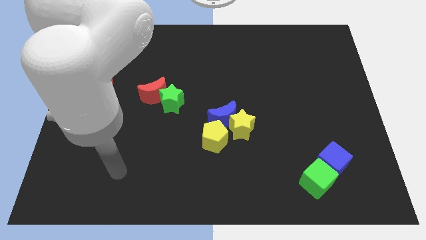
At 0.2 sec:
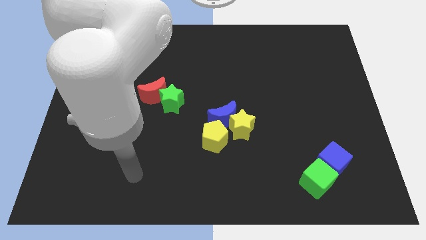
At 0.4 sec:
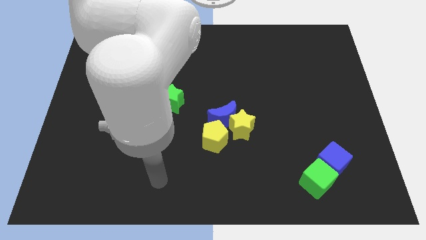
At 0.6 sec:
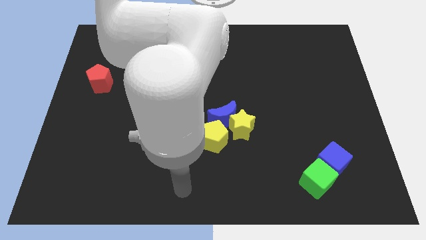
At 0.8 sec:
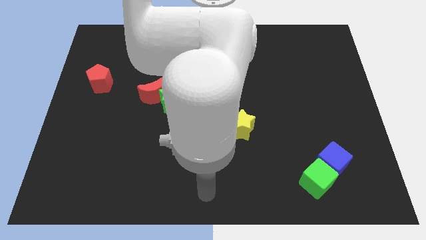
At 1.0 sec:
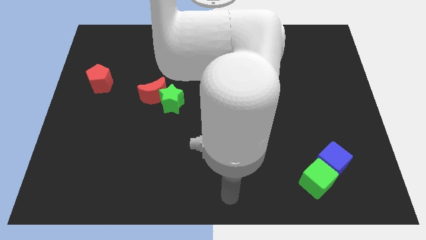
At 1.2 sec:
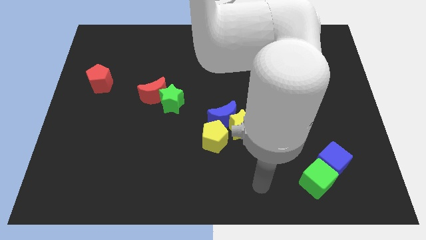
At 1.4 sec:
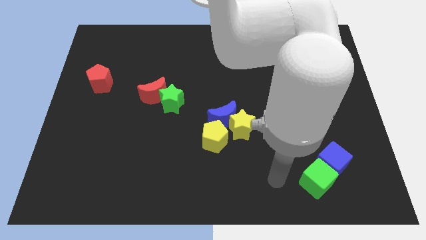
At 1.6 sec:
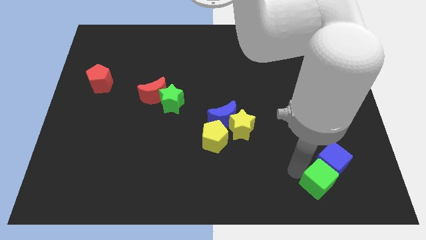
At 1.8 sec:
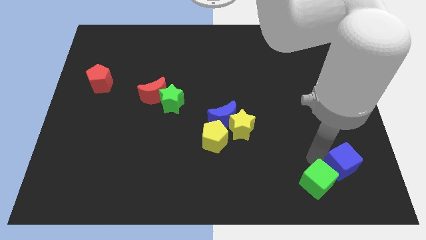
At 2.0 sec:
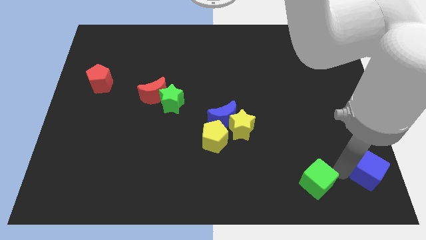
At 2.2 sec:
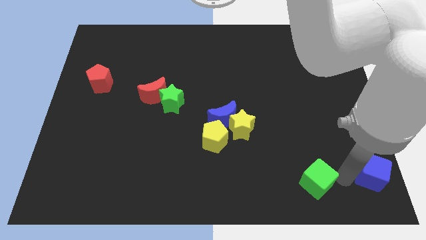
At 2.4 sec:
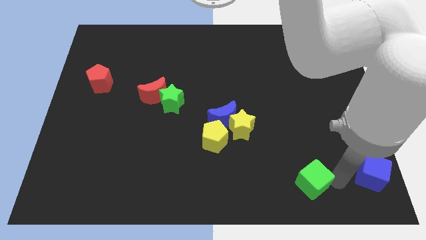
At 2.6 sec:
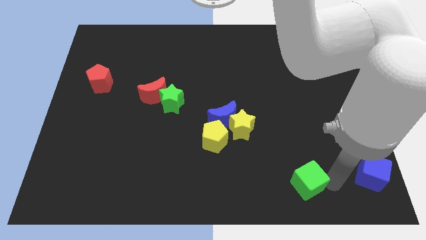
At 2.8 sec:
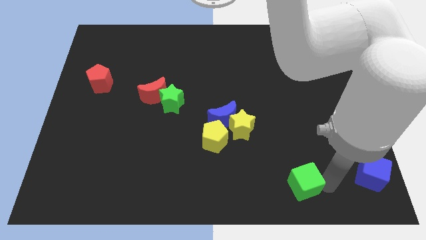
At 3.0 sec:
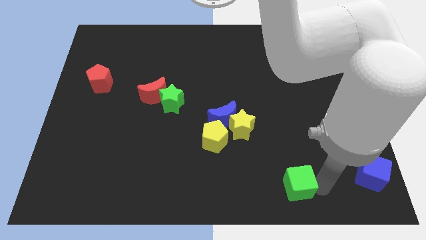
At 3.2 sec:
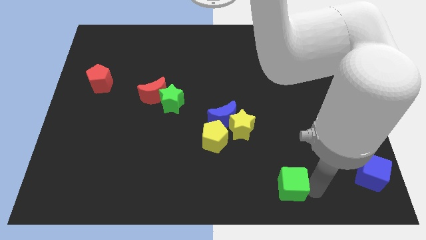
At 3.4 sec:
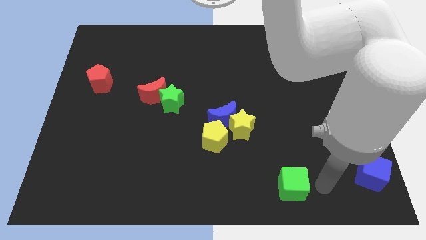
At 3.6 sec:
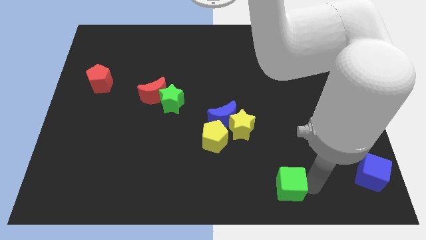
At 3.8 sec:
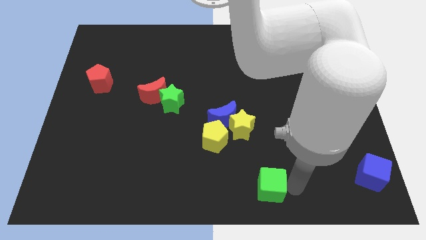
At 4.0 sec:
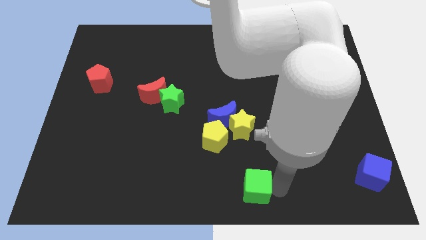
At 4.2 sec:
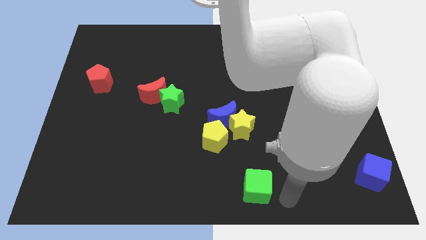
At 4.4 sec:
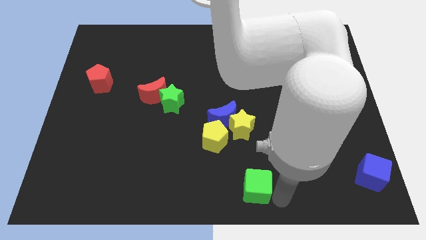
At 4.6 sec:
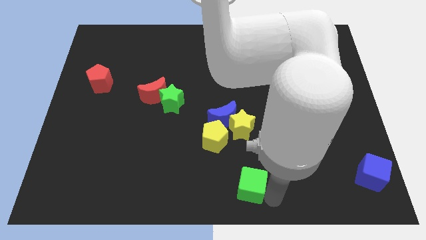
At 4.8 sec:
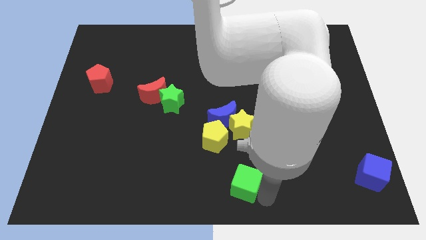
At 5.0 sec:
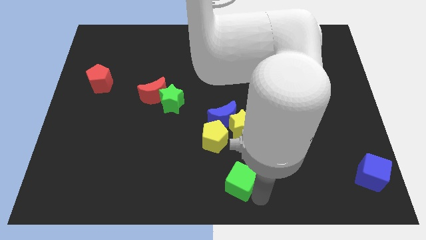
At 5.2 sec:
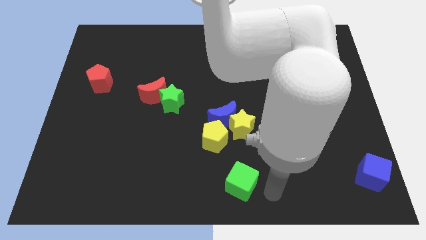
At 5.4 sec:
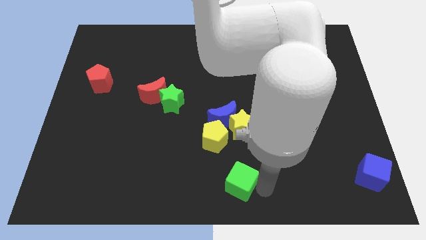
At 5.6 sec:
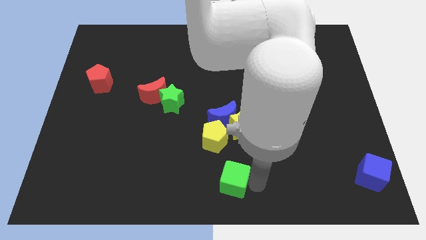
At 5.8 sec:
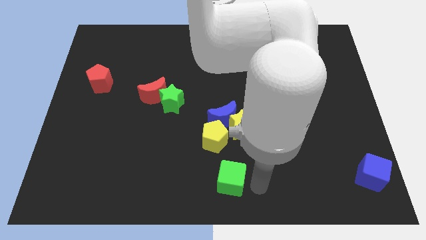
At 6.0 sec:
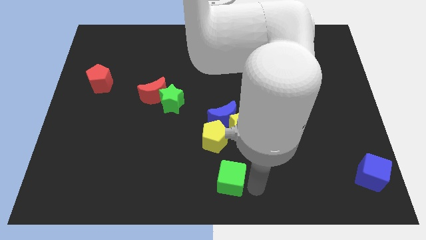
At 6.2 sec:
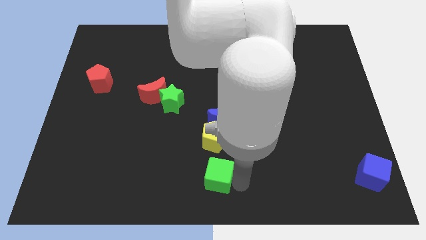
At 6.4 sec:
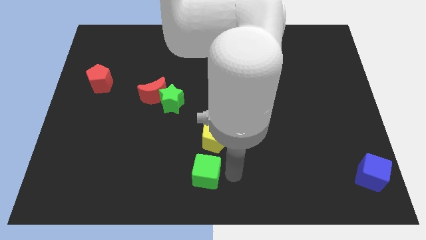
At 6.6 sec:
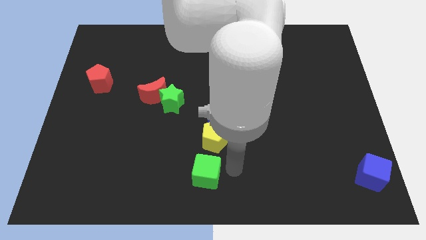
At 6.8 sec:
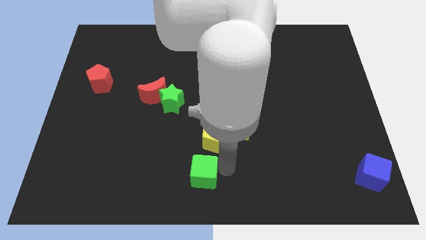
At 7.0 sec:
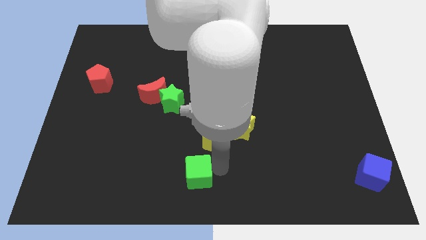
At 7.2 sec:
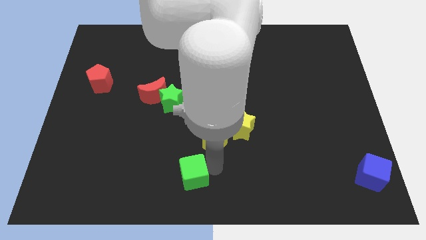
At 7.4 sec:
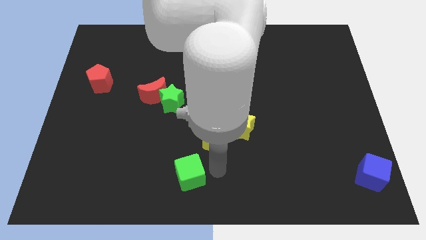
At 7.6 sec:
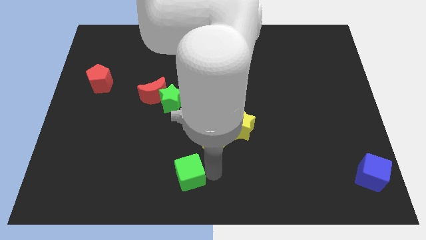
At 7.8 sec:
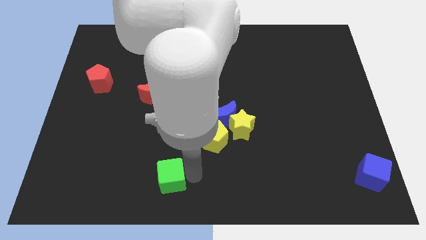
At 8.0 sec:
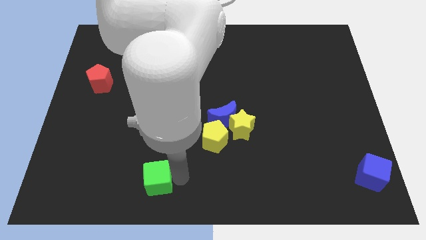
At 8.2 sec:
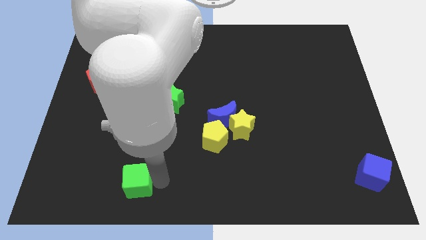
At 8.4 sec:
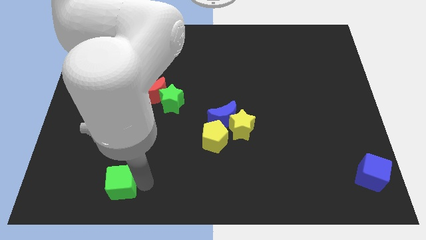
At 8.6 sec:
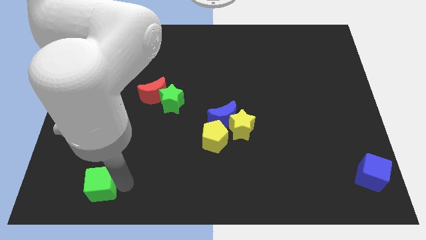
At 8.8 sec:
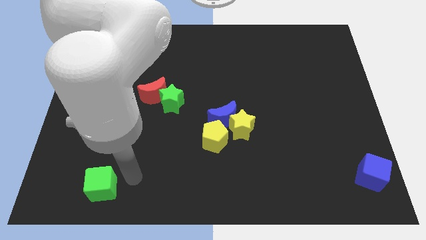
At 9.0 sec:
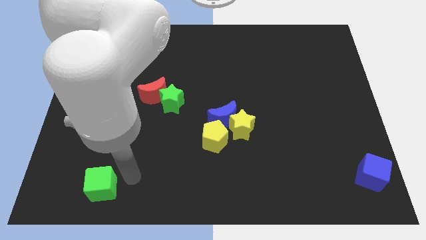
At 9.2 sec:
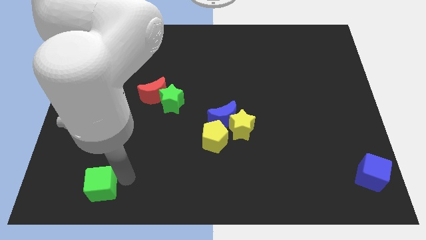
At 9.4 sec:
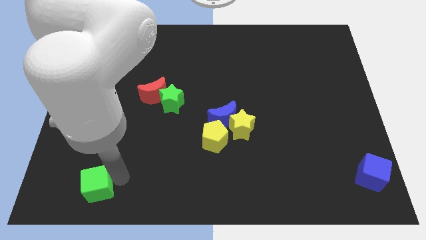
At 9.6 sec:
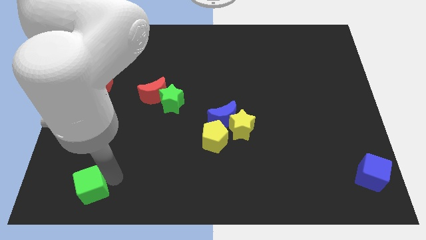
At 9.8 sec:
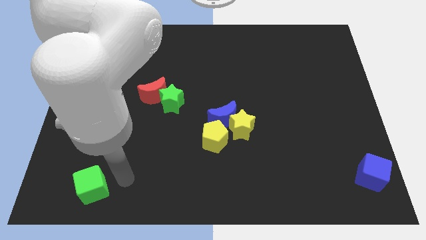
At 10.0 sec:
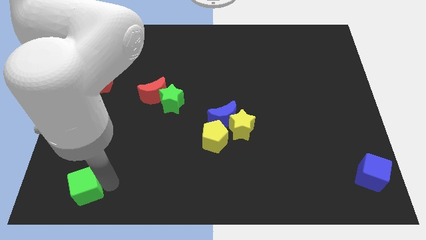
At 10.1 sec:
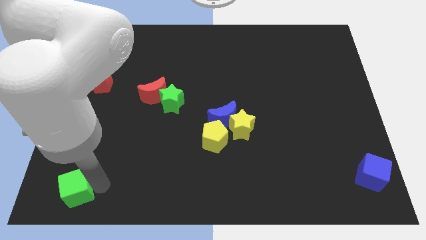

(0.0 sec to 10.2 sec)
move the green cube to the bottom left corner

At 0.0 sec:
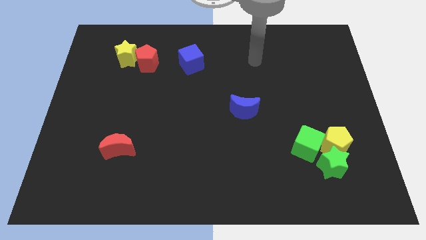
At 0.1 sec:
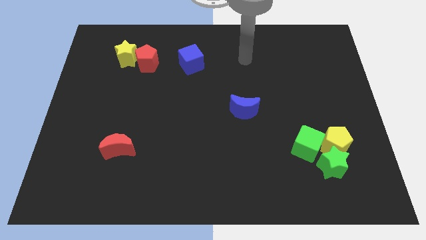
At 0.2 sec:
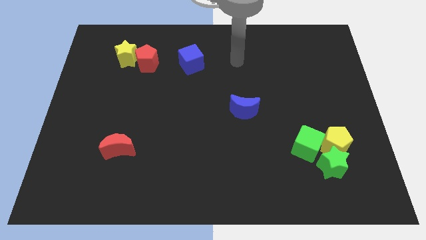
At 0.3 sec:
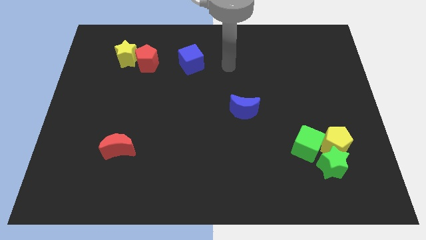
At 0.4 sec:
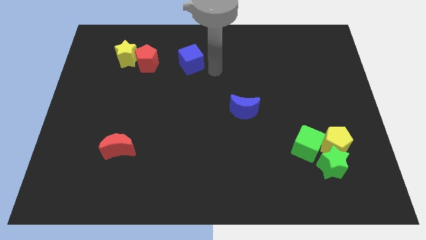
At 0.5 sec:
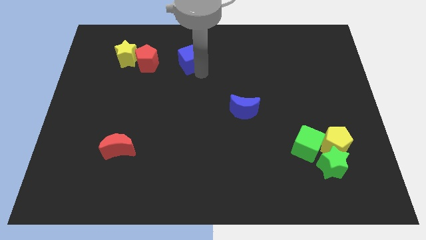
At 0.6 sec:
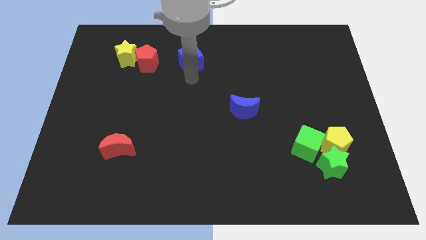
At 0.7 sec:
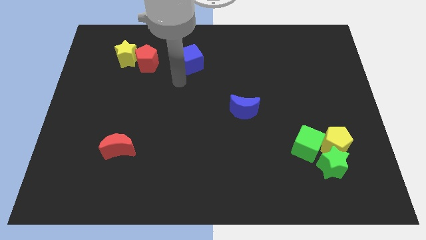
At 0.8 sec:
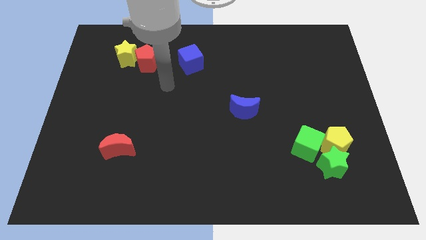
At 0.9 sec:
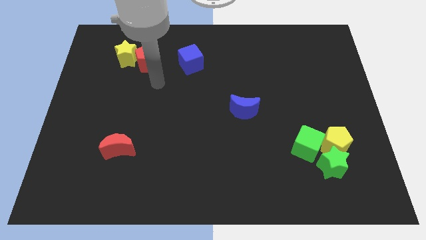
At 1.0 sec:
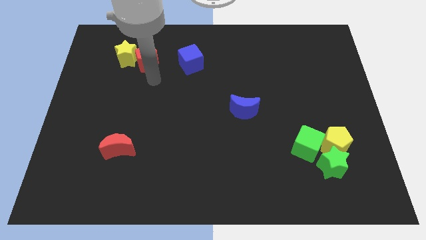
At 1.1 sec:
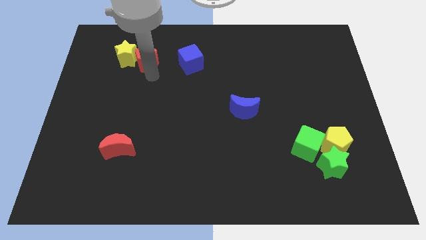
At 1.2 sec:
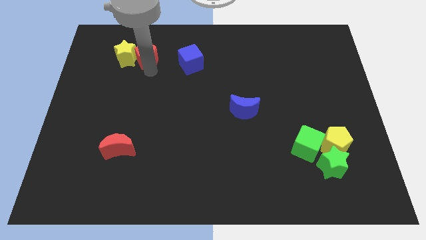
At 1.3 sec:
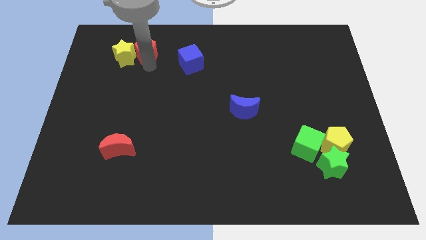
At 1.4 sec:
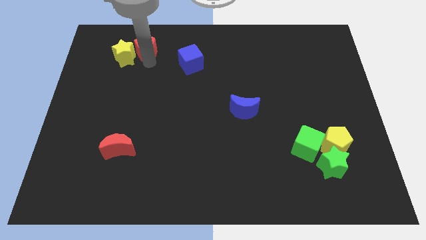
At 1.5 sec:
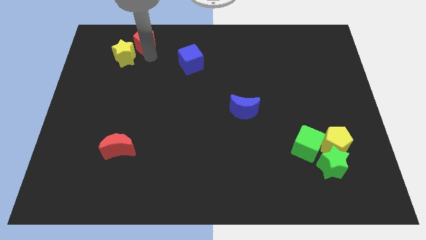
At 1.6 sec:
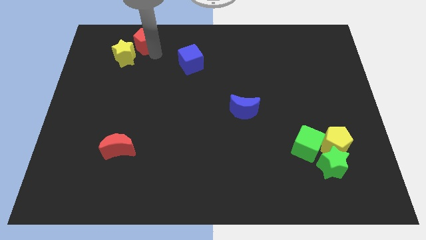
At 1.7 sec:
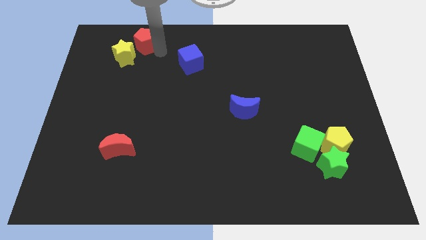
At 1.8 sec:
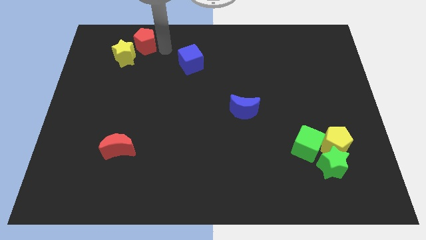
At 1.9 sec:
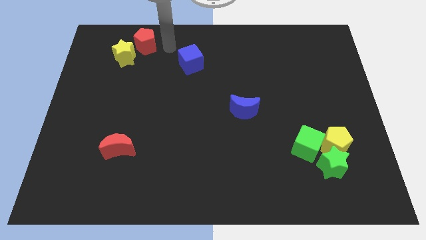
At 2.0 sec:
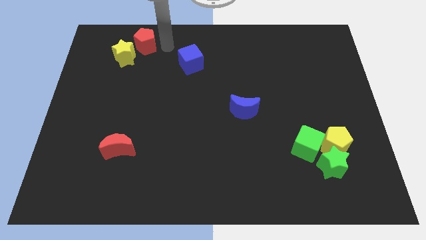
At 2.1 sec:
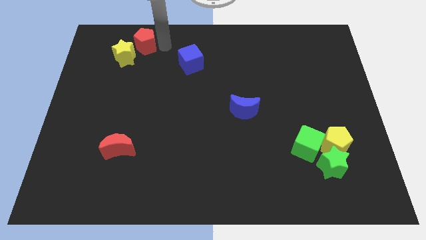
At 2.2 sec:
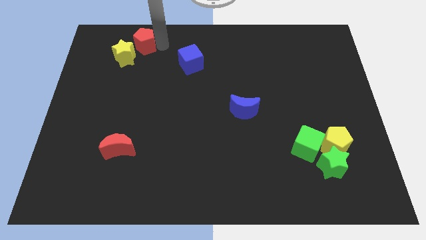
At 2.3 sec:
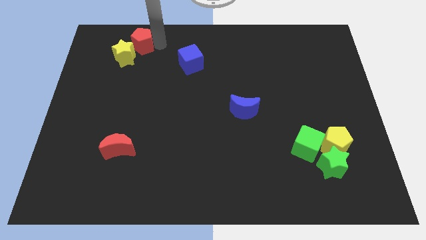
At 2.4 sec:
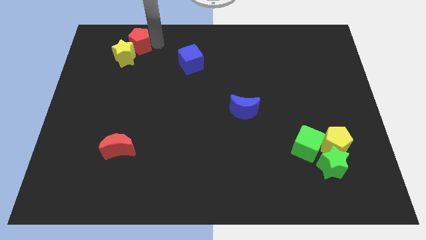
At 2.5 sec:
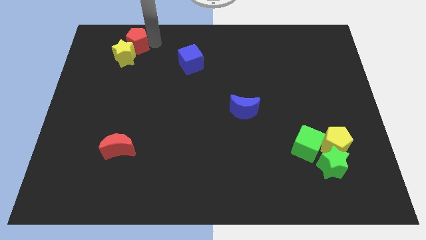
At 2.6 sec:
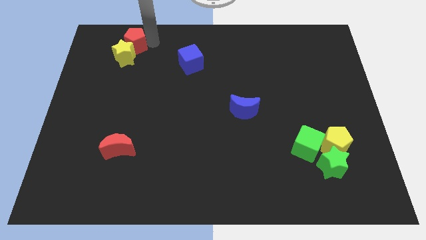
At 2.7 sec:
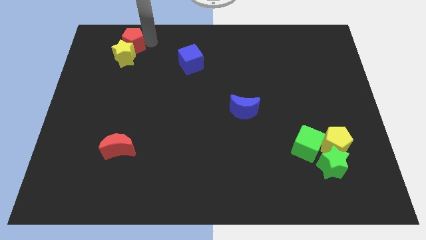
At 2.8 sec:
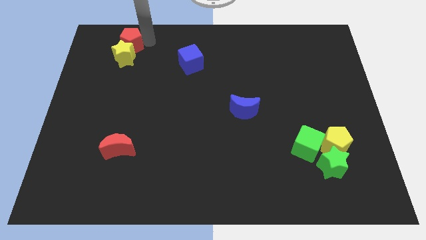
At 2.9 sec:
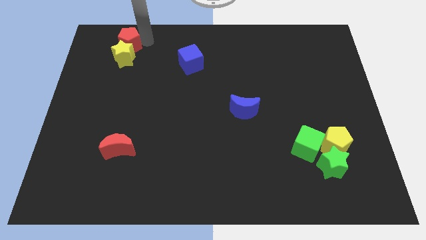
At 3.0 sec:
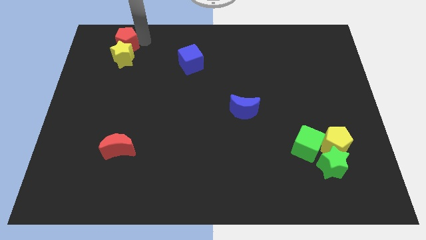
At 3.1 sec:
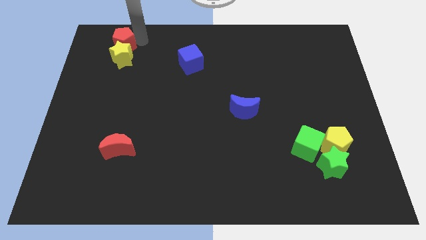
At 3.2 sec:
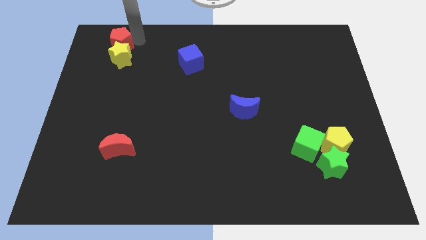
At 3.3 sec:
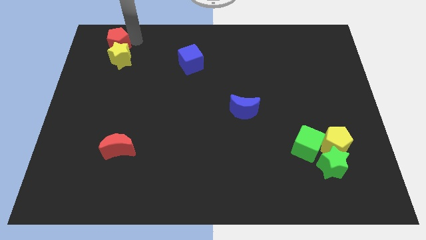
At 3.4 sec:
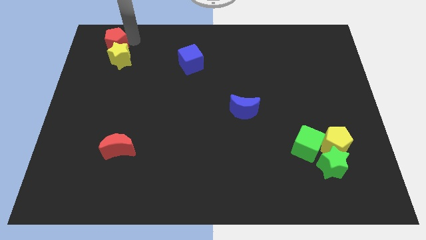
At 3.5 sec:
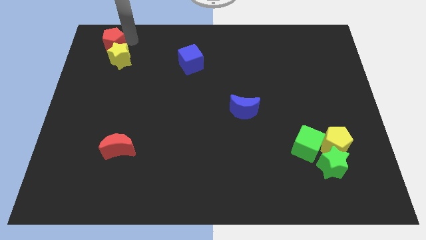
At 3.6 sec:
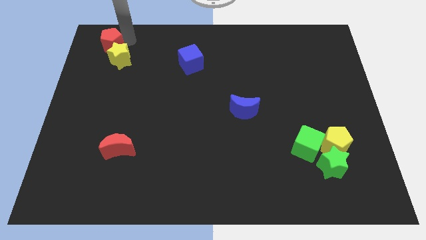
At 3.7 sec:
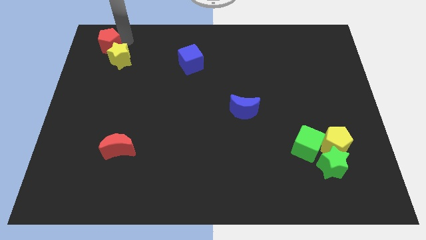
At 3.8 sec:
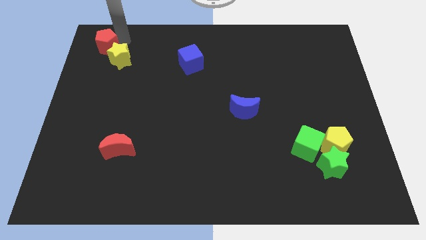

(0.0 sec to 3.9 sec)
push the red pentagon to the top left of the board
